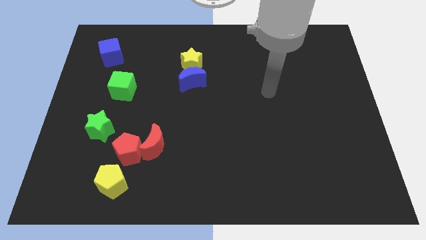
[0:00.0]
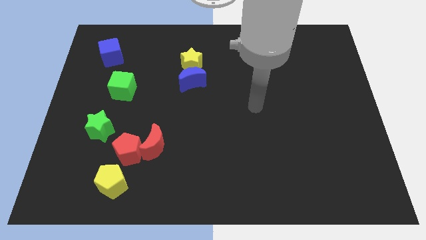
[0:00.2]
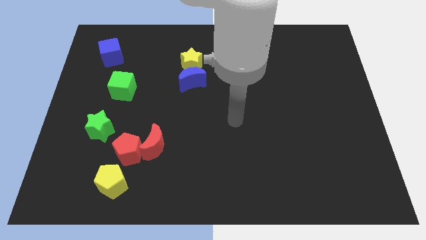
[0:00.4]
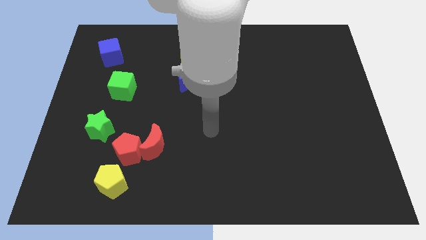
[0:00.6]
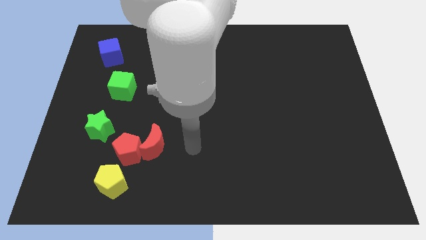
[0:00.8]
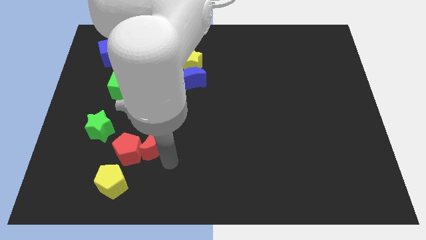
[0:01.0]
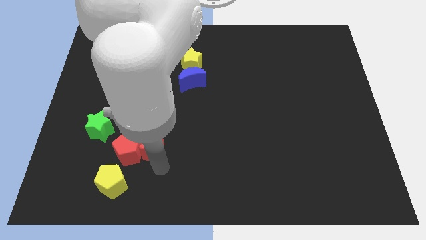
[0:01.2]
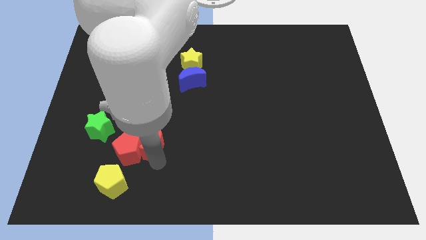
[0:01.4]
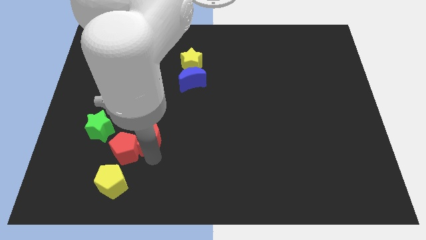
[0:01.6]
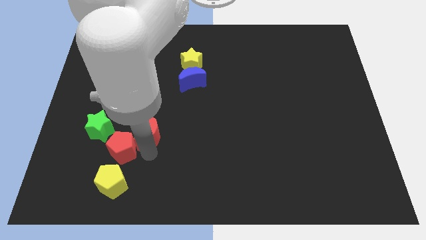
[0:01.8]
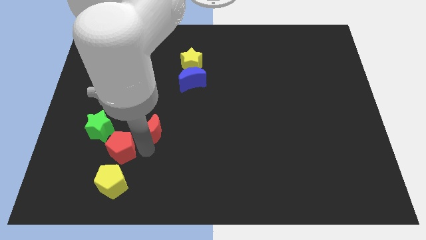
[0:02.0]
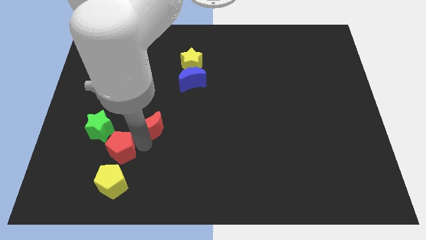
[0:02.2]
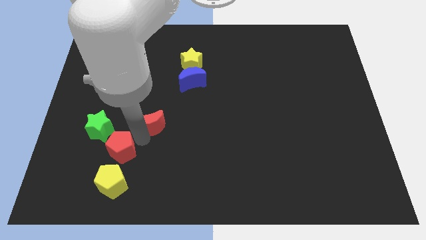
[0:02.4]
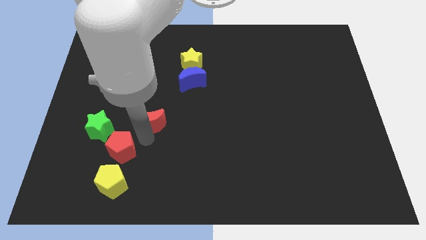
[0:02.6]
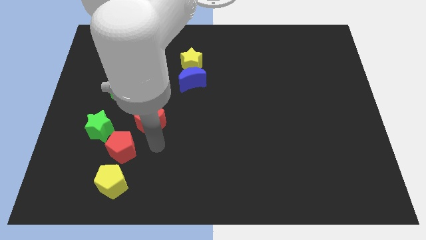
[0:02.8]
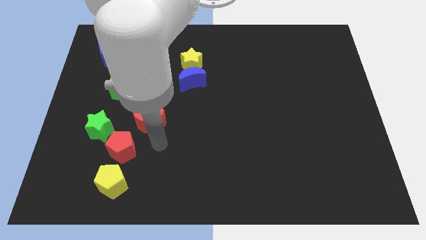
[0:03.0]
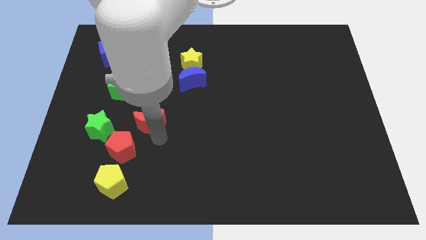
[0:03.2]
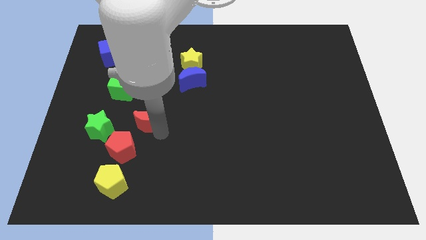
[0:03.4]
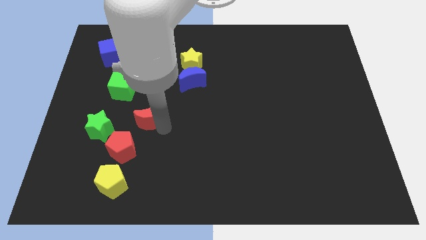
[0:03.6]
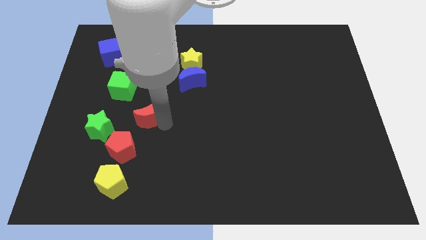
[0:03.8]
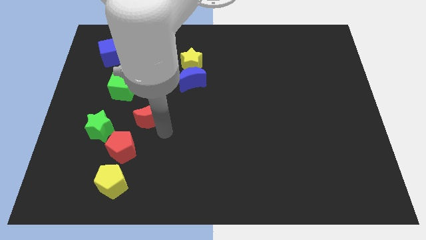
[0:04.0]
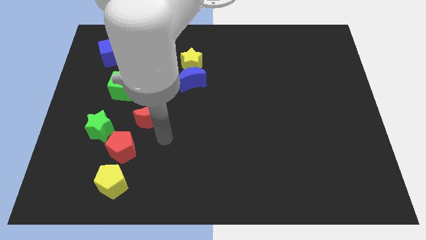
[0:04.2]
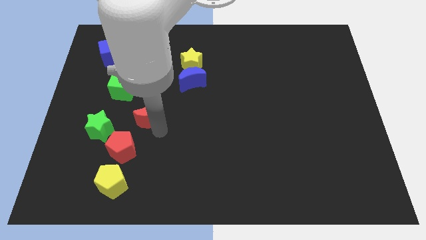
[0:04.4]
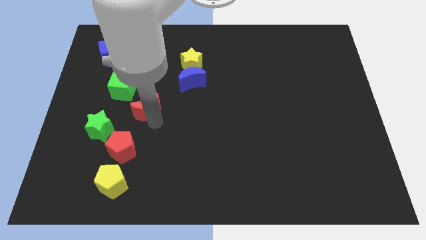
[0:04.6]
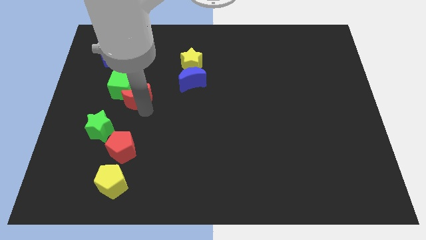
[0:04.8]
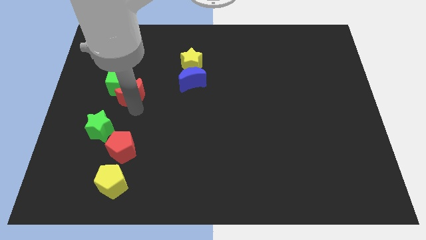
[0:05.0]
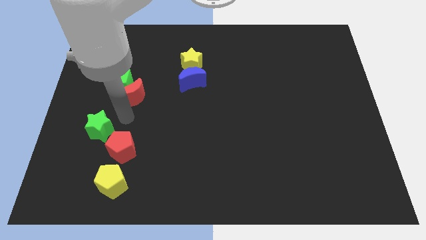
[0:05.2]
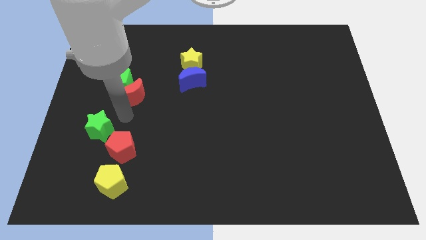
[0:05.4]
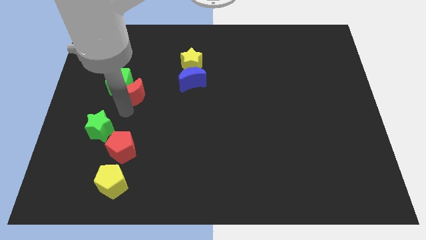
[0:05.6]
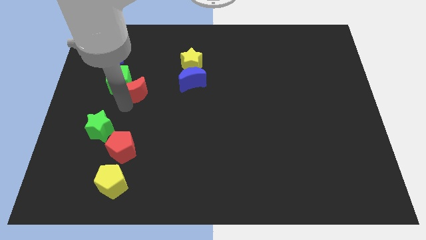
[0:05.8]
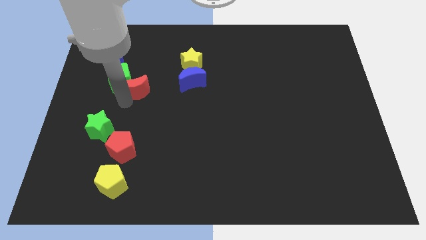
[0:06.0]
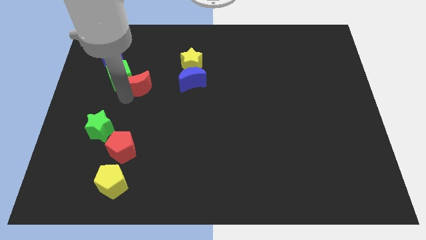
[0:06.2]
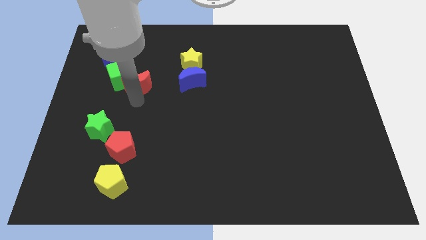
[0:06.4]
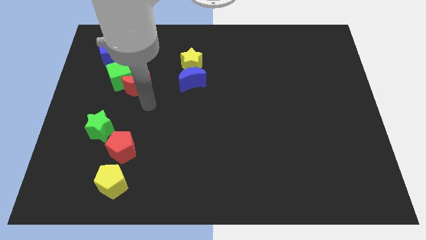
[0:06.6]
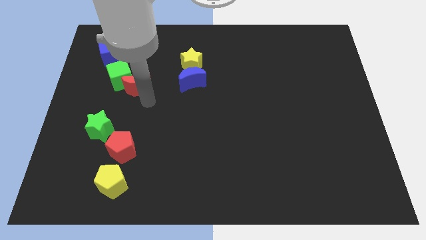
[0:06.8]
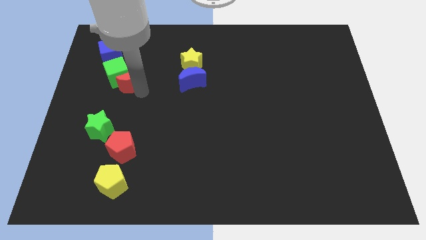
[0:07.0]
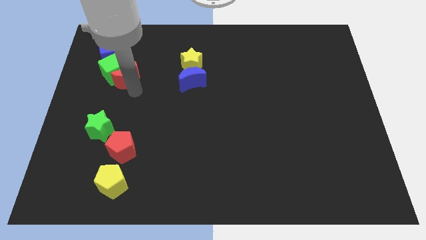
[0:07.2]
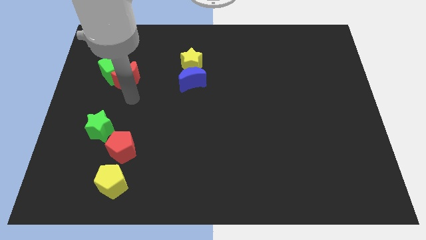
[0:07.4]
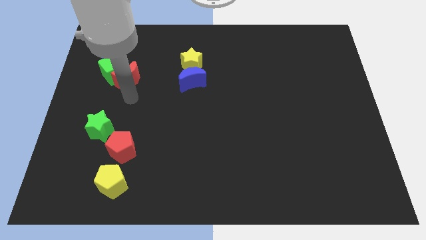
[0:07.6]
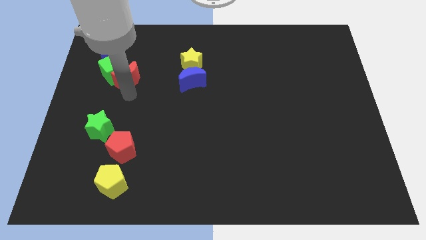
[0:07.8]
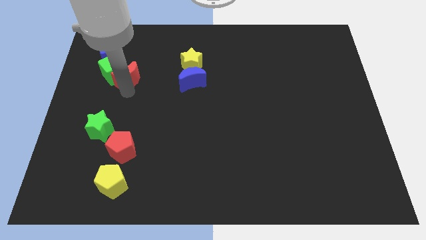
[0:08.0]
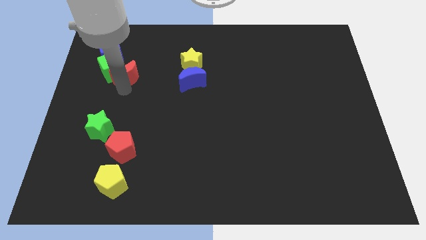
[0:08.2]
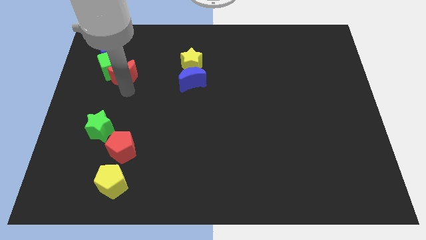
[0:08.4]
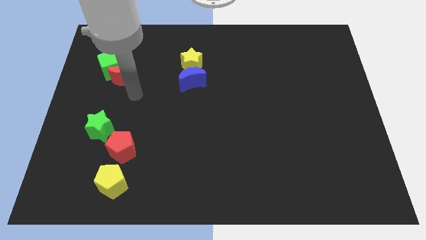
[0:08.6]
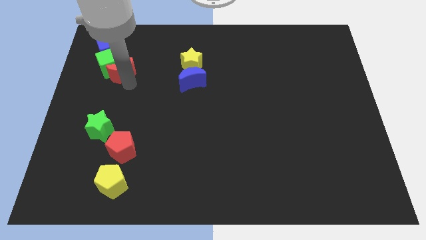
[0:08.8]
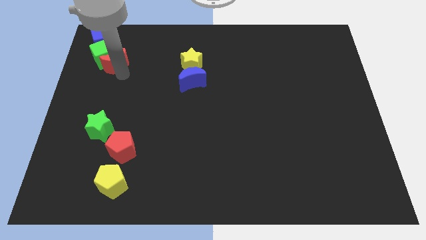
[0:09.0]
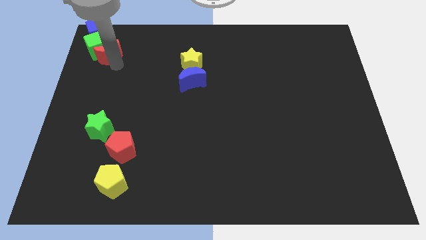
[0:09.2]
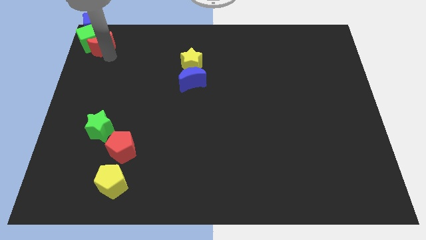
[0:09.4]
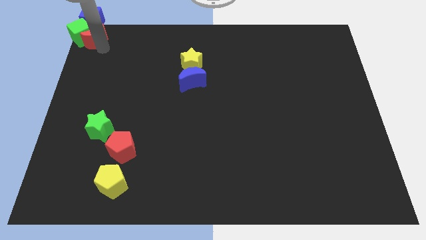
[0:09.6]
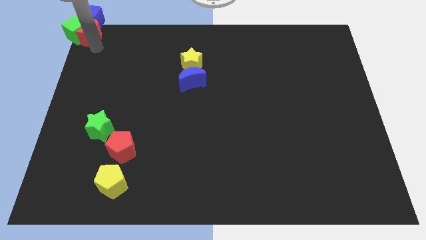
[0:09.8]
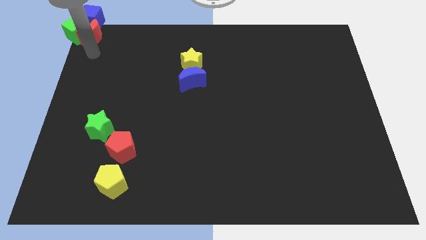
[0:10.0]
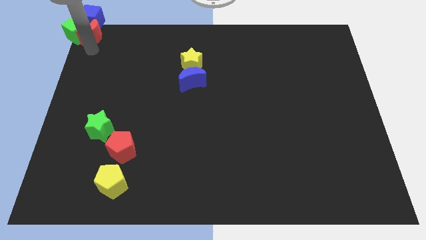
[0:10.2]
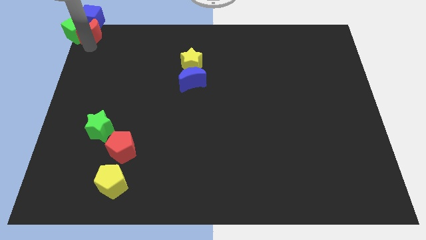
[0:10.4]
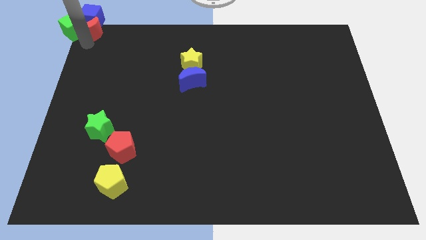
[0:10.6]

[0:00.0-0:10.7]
move the red moon to the blue cube

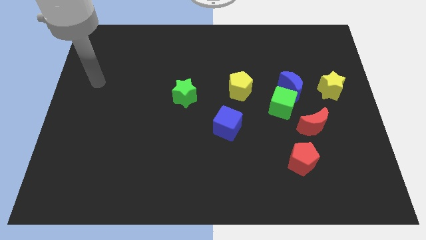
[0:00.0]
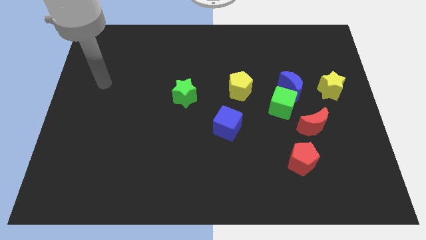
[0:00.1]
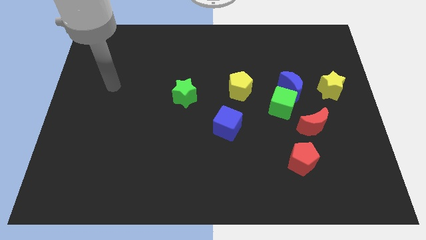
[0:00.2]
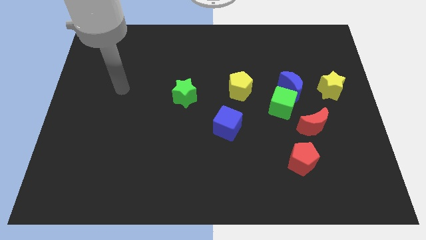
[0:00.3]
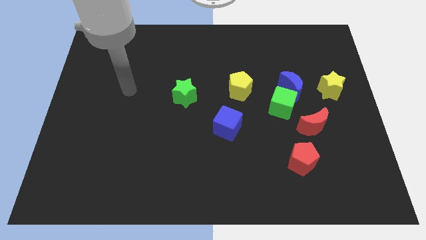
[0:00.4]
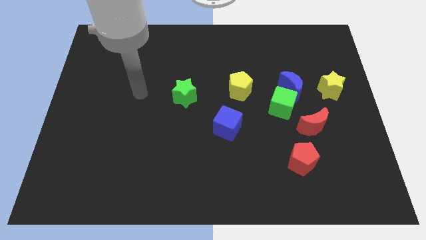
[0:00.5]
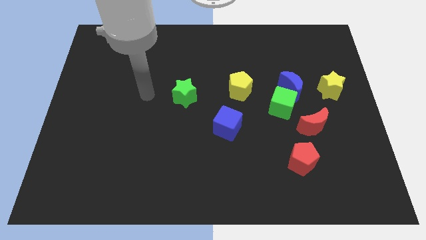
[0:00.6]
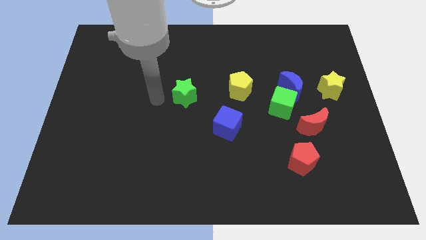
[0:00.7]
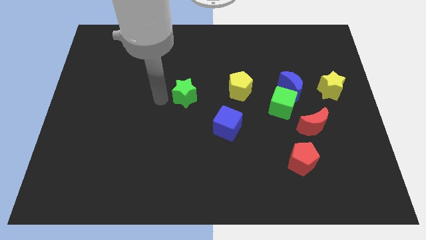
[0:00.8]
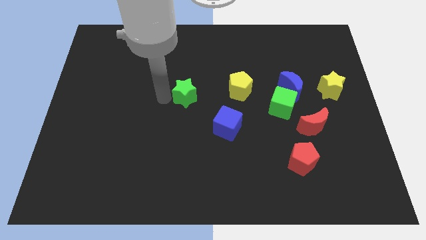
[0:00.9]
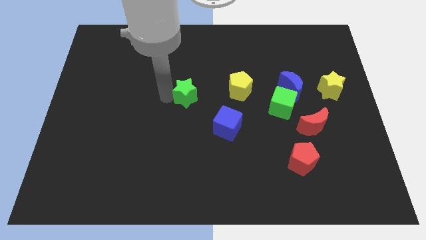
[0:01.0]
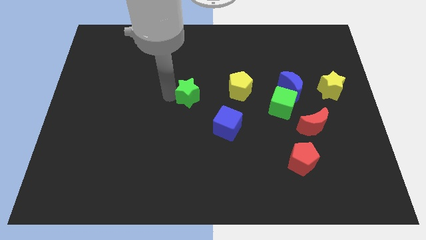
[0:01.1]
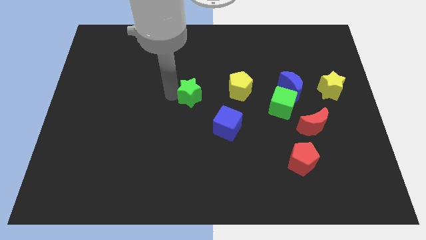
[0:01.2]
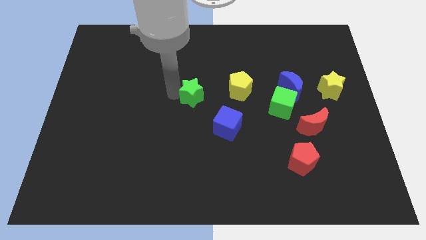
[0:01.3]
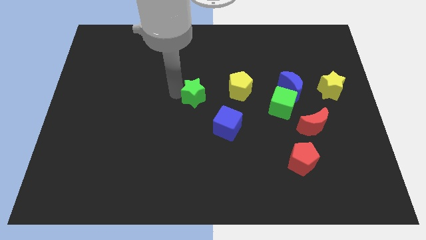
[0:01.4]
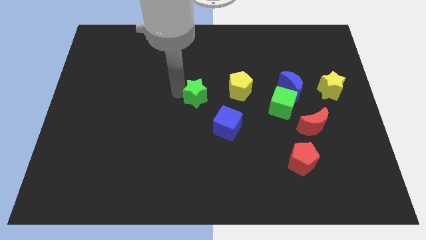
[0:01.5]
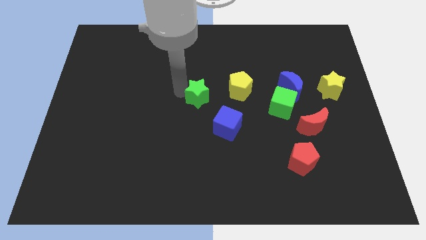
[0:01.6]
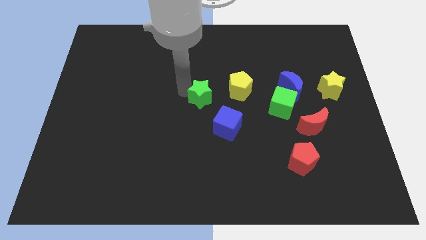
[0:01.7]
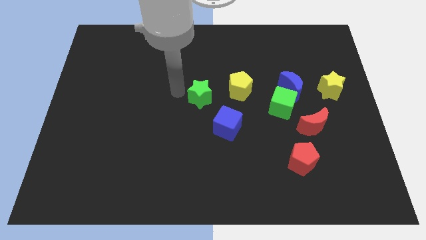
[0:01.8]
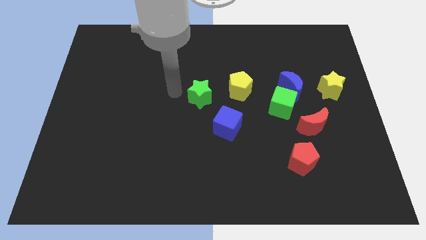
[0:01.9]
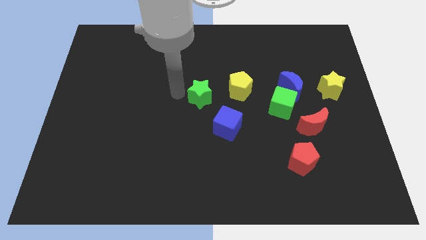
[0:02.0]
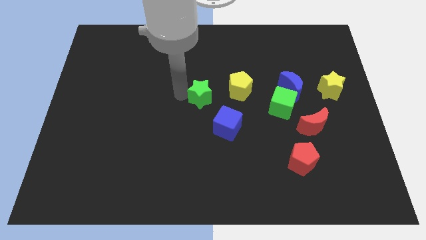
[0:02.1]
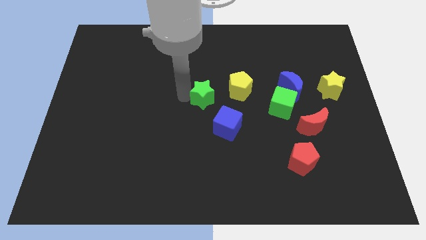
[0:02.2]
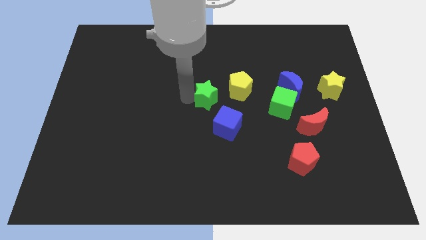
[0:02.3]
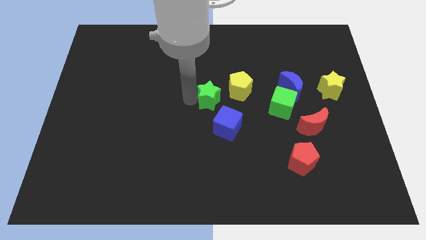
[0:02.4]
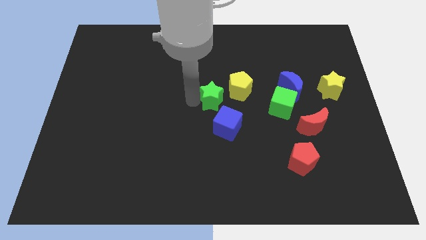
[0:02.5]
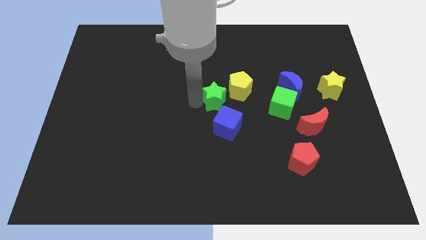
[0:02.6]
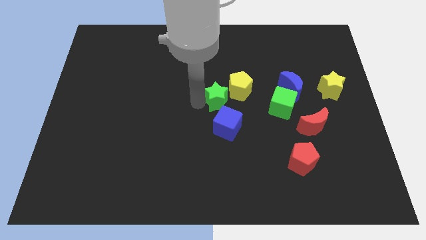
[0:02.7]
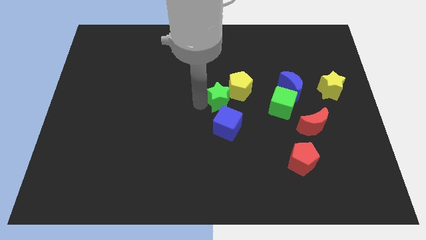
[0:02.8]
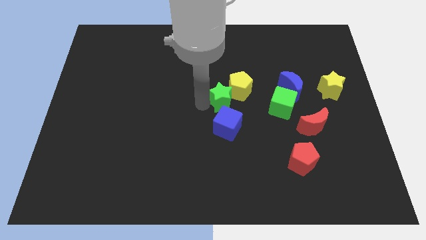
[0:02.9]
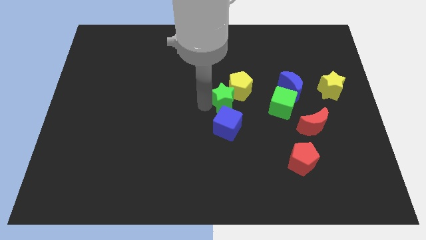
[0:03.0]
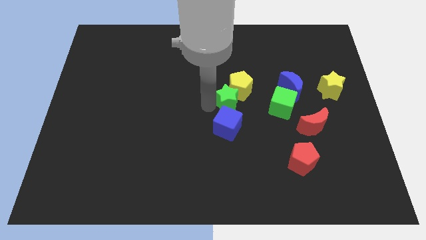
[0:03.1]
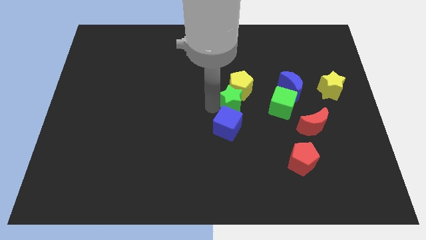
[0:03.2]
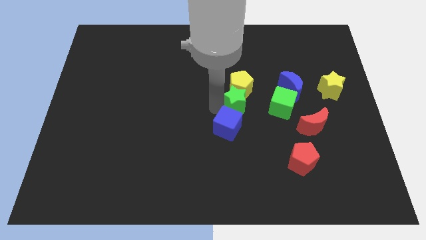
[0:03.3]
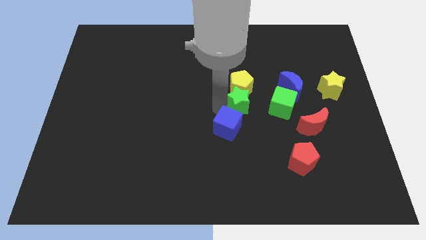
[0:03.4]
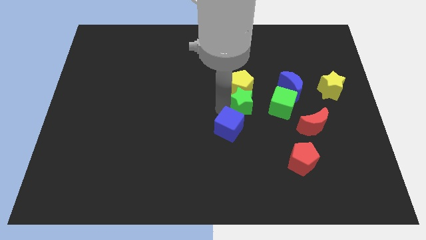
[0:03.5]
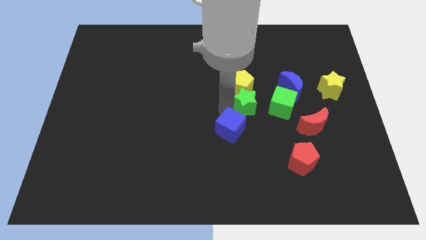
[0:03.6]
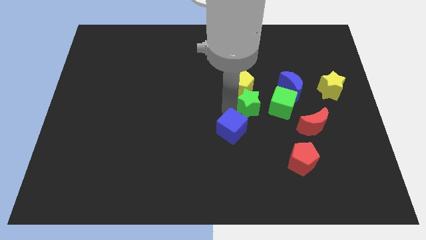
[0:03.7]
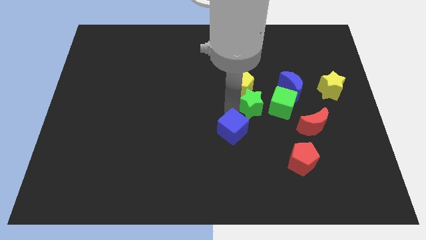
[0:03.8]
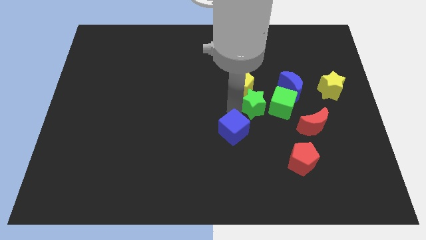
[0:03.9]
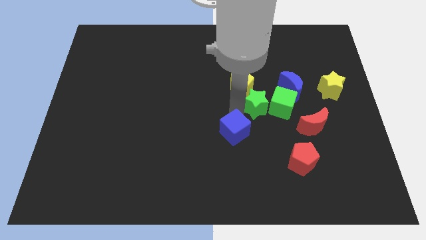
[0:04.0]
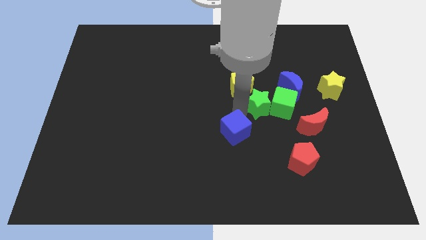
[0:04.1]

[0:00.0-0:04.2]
move the green star to the green cube
